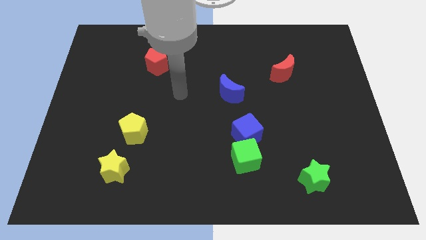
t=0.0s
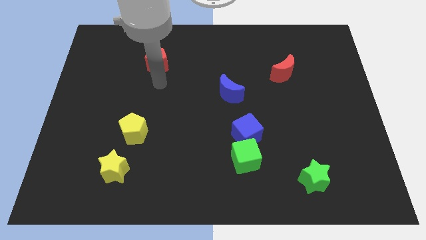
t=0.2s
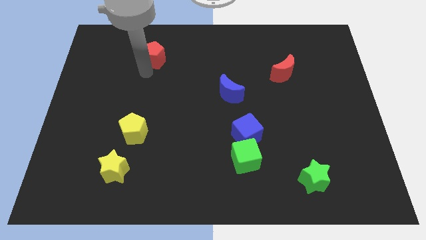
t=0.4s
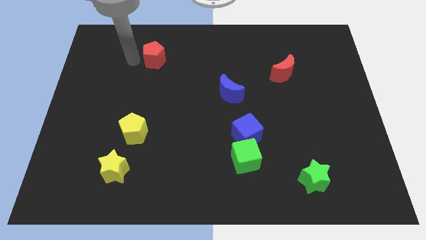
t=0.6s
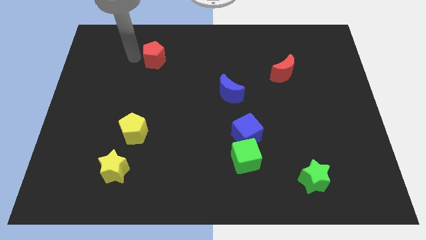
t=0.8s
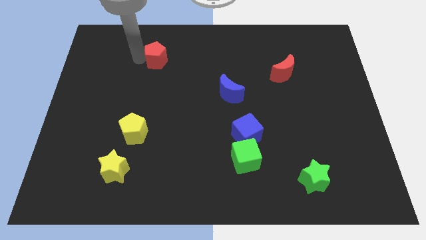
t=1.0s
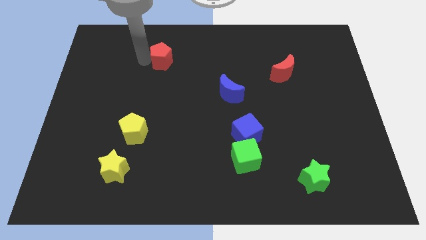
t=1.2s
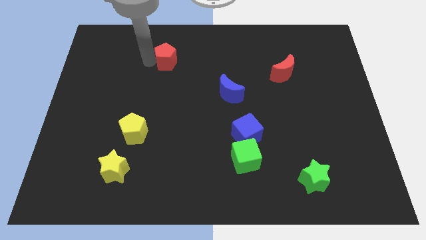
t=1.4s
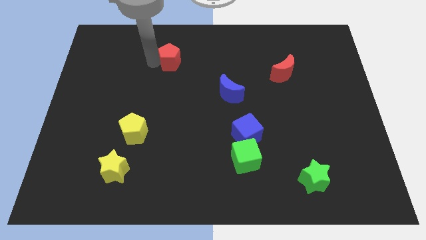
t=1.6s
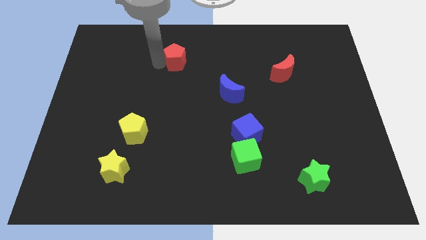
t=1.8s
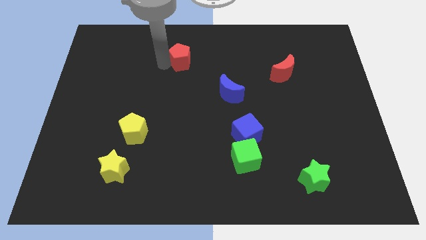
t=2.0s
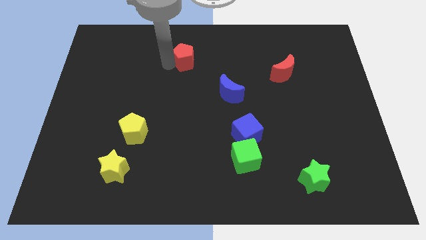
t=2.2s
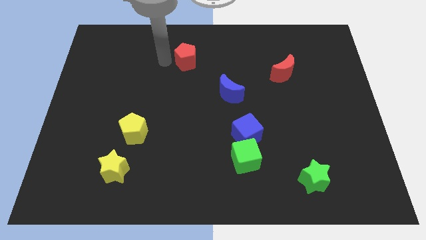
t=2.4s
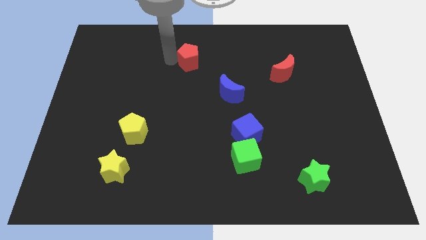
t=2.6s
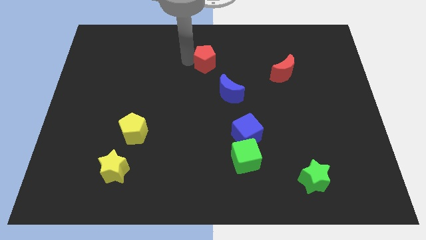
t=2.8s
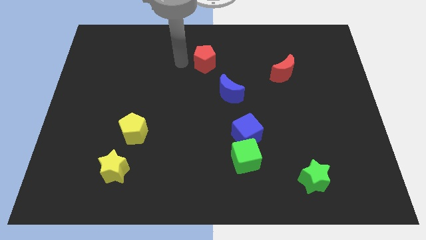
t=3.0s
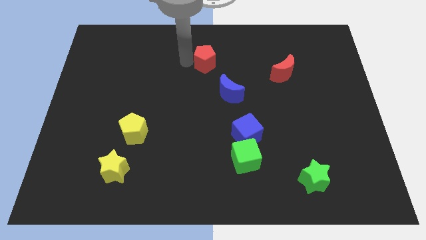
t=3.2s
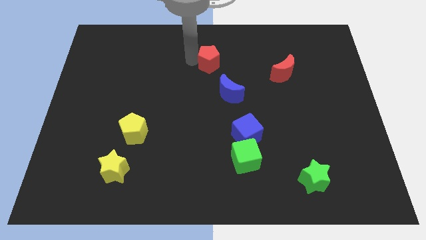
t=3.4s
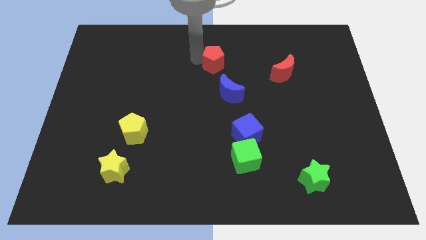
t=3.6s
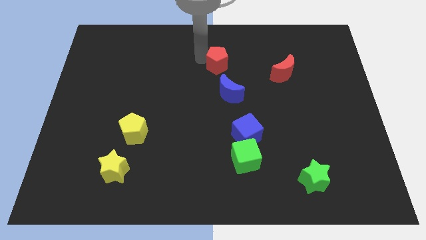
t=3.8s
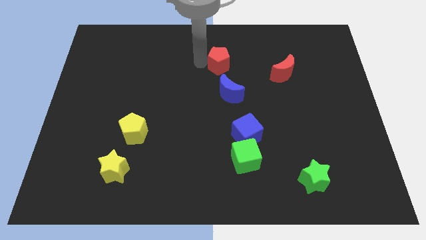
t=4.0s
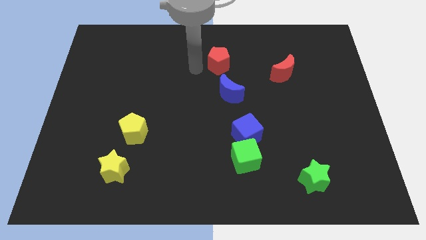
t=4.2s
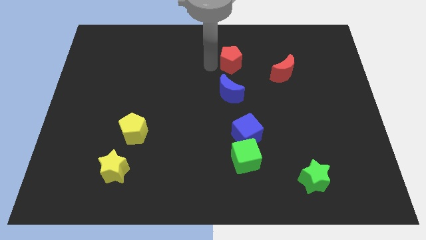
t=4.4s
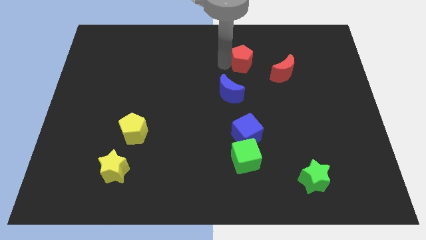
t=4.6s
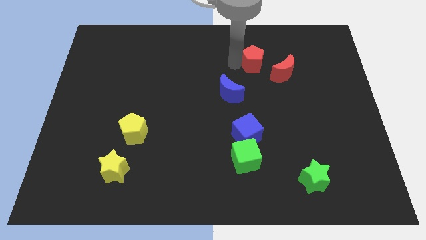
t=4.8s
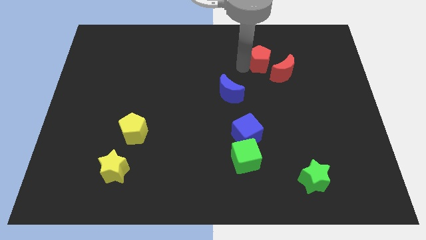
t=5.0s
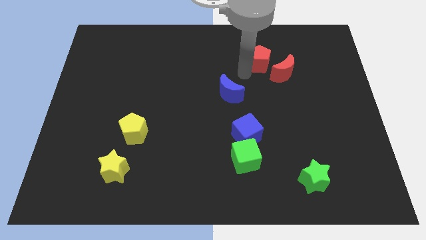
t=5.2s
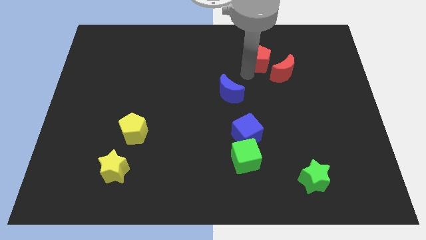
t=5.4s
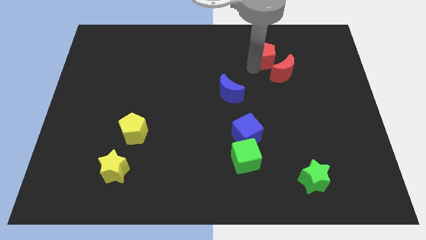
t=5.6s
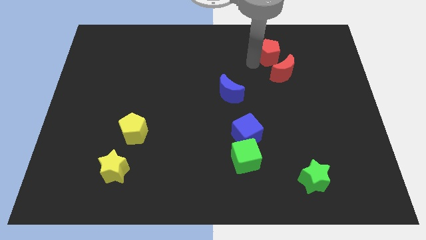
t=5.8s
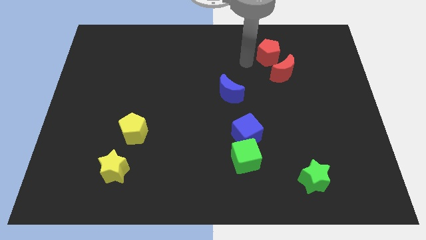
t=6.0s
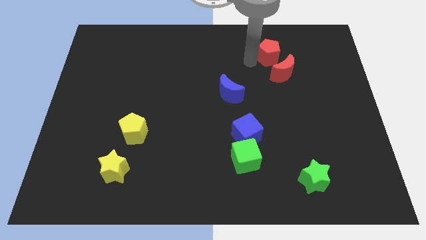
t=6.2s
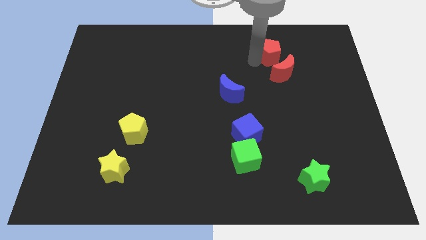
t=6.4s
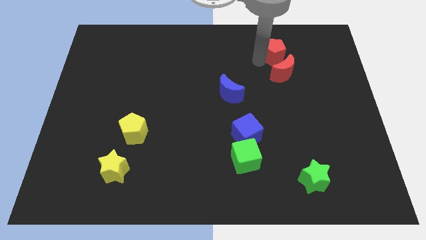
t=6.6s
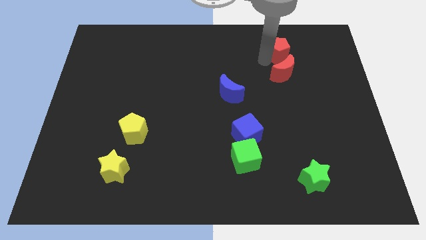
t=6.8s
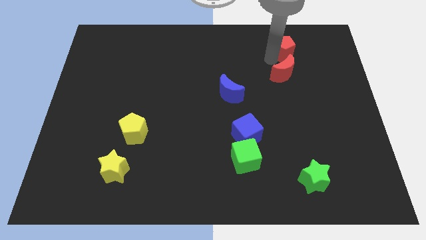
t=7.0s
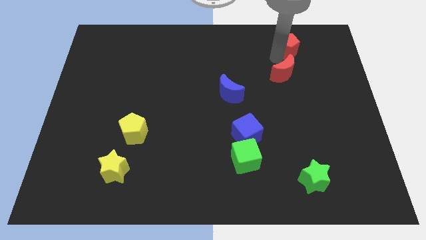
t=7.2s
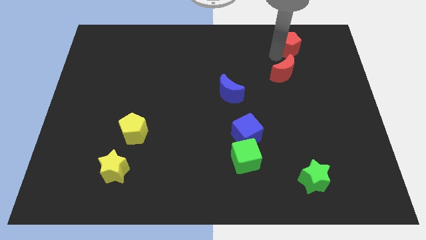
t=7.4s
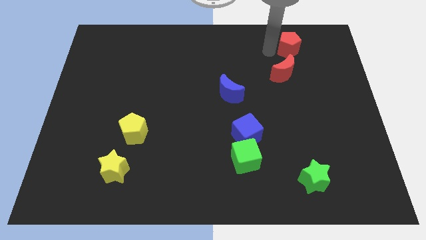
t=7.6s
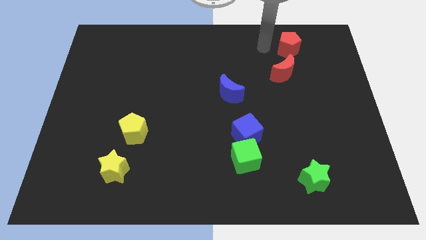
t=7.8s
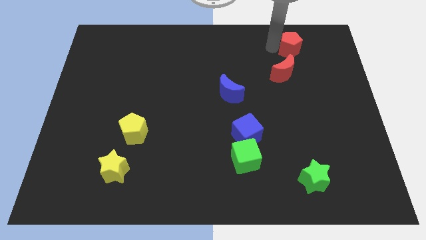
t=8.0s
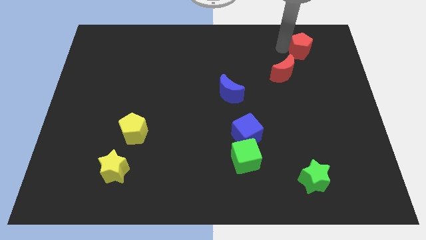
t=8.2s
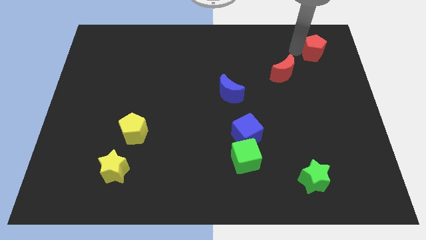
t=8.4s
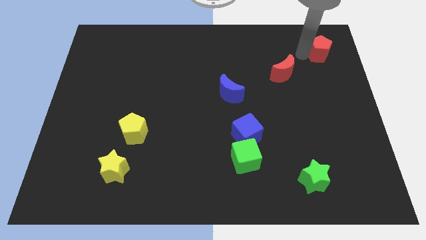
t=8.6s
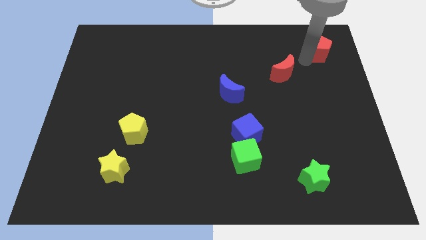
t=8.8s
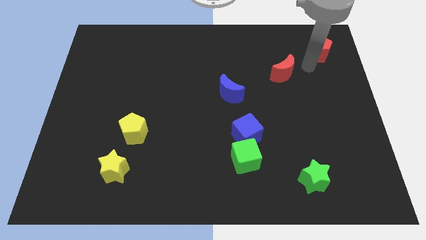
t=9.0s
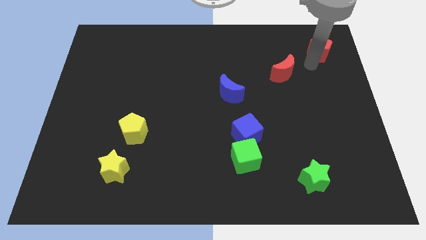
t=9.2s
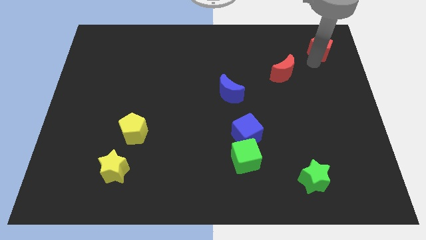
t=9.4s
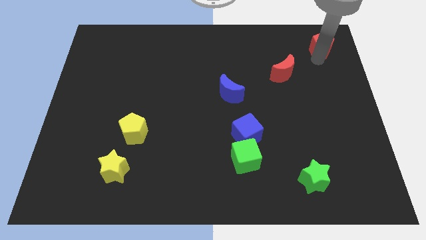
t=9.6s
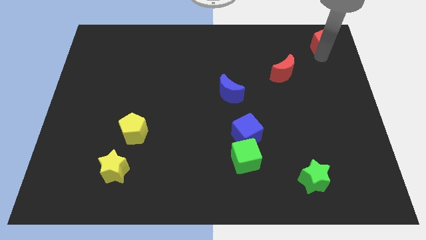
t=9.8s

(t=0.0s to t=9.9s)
slide the red pentagon to the top right of the board

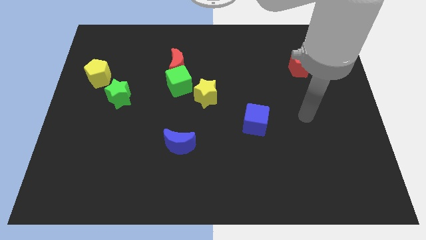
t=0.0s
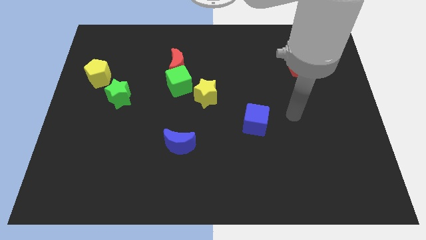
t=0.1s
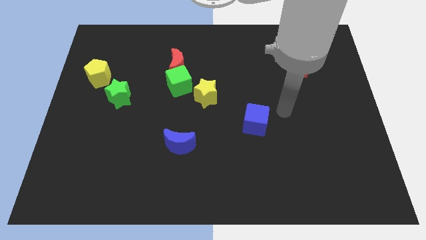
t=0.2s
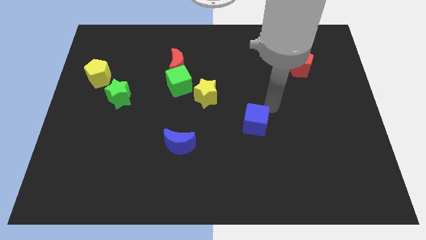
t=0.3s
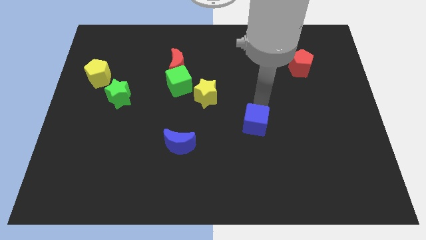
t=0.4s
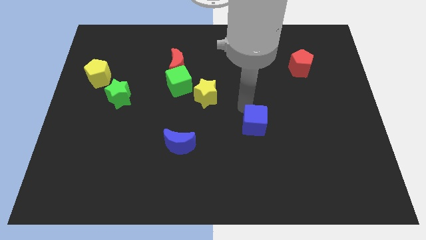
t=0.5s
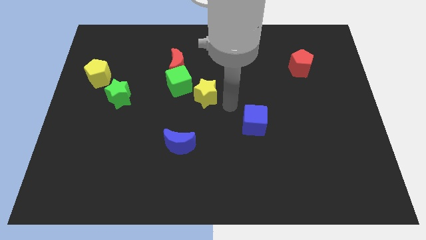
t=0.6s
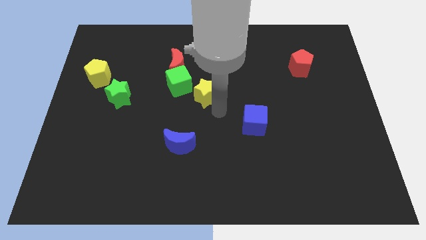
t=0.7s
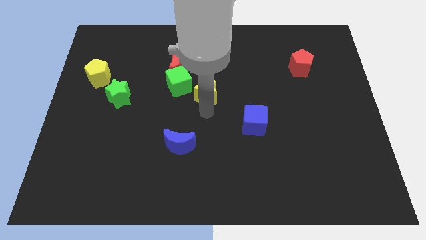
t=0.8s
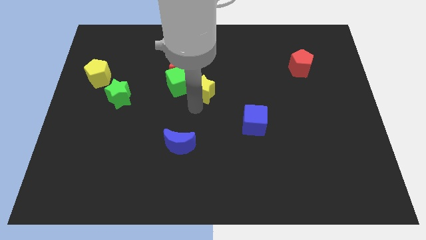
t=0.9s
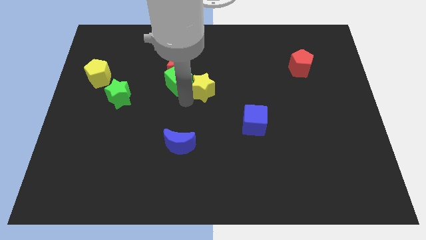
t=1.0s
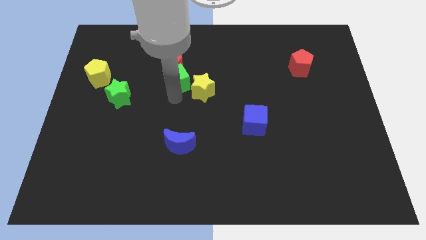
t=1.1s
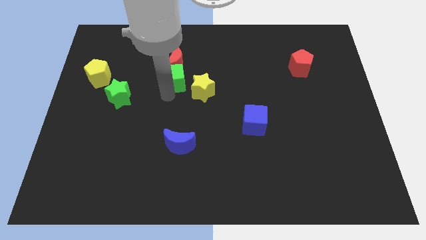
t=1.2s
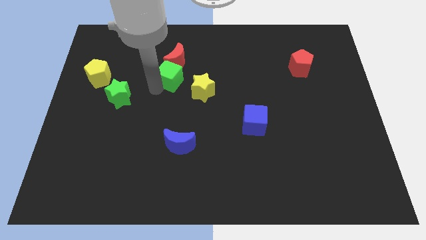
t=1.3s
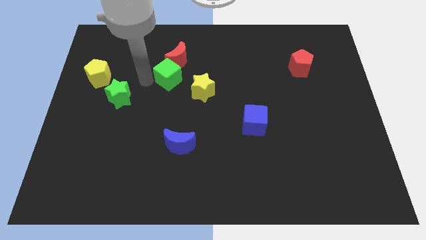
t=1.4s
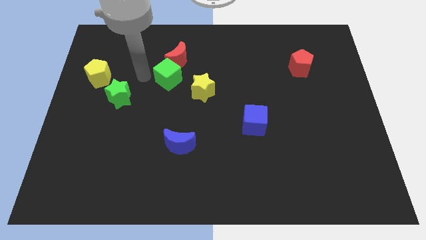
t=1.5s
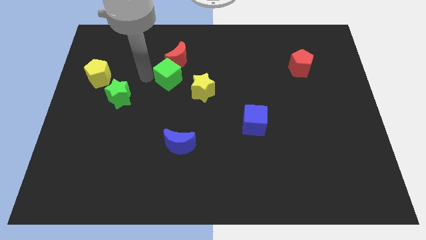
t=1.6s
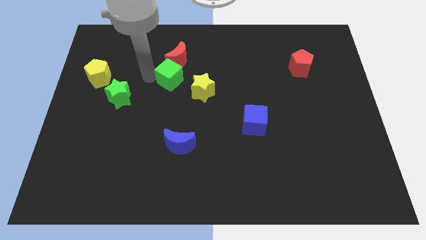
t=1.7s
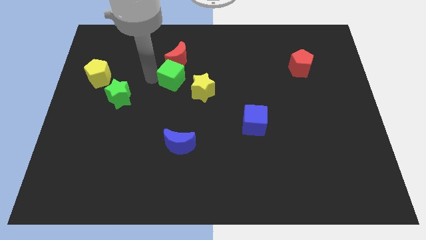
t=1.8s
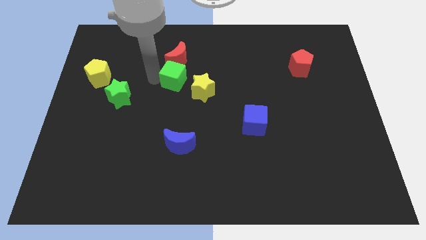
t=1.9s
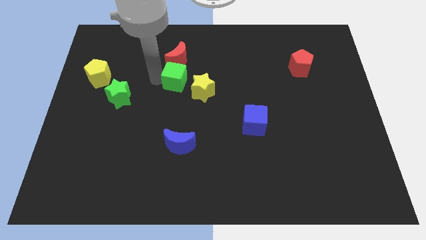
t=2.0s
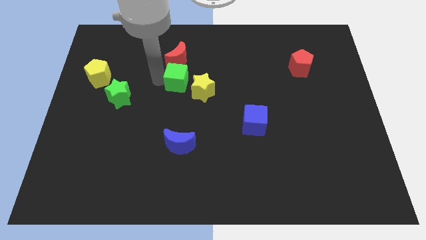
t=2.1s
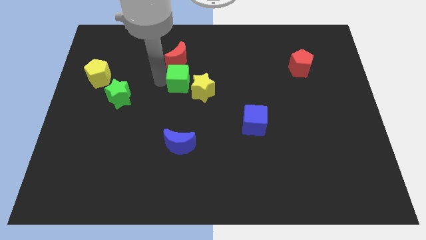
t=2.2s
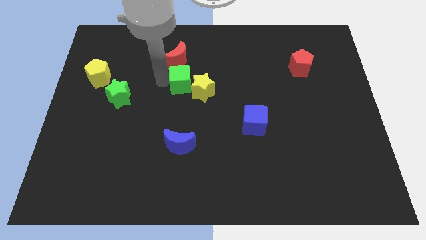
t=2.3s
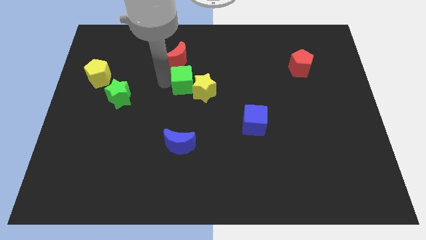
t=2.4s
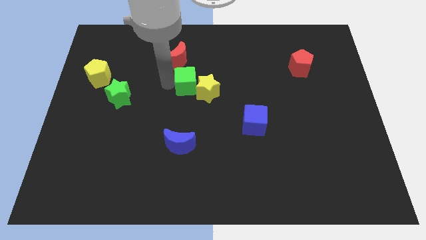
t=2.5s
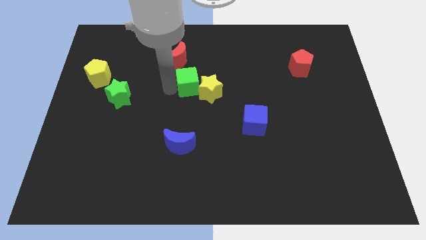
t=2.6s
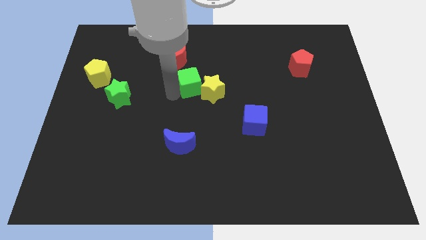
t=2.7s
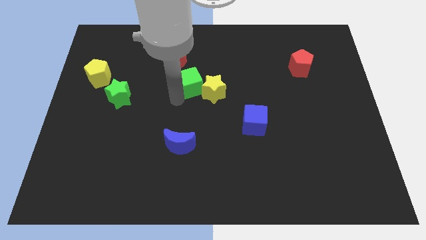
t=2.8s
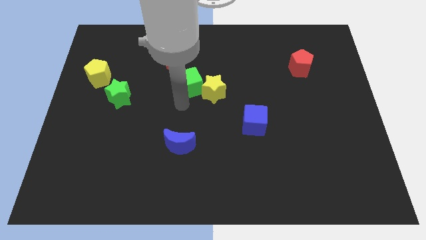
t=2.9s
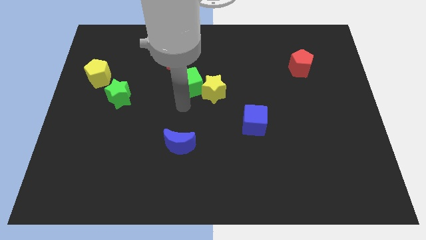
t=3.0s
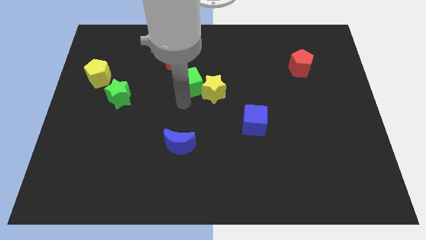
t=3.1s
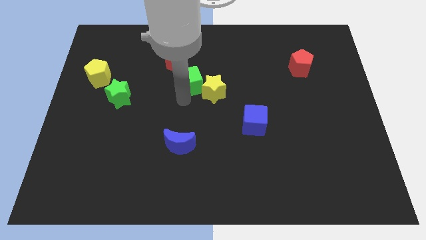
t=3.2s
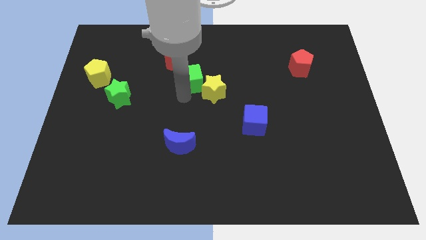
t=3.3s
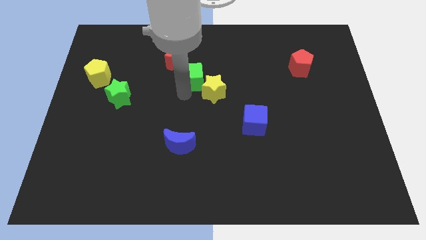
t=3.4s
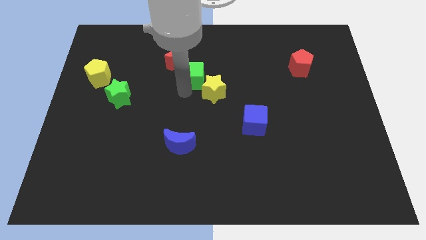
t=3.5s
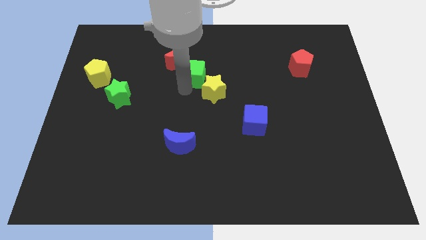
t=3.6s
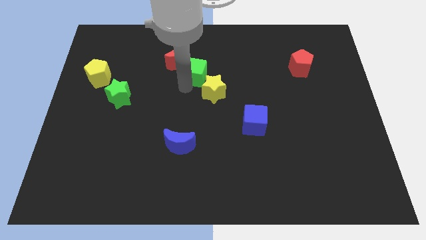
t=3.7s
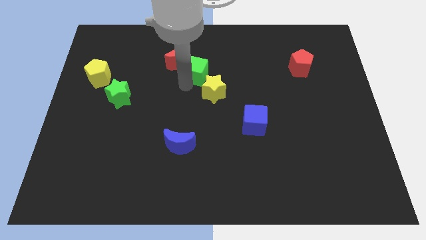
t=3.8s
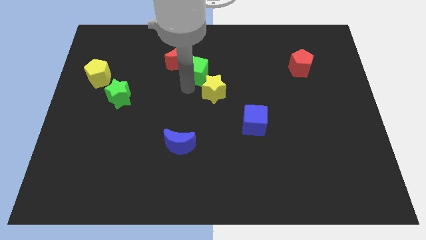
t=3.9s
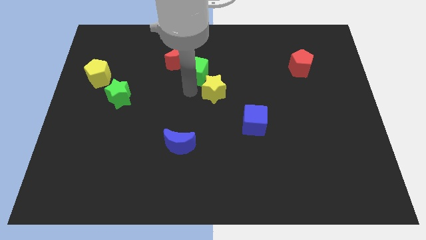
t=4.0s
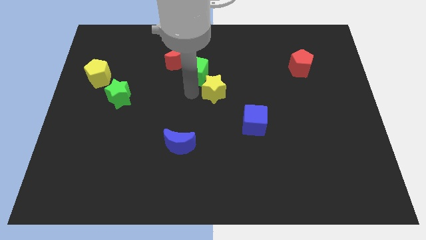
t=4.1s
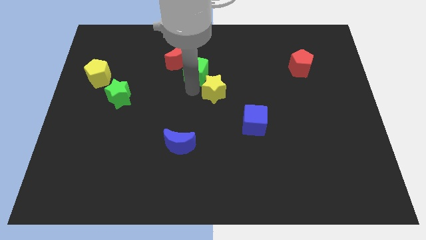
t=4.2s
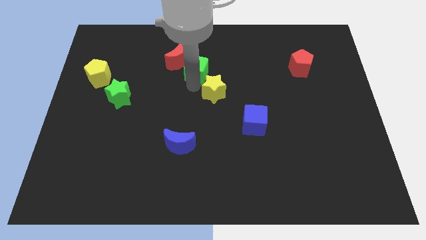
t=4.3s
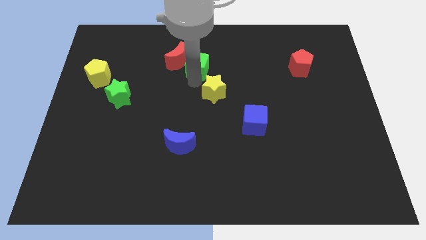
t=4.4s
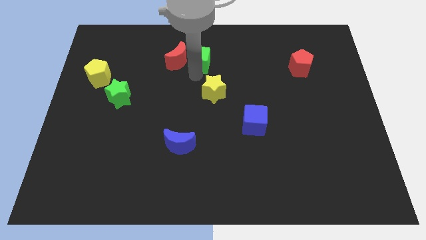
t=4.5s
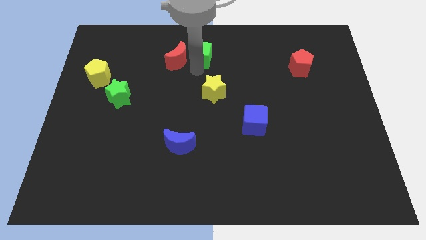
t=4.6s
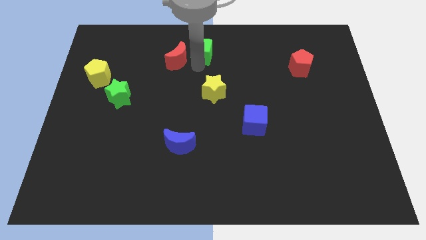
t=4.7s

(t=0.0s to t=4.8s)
push the green cube to the top
